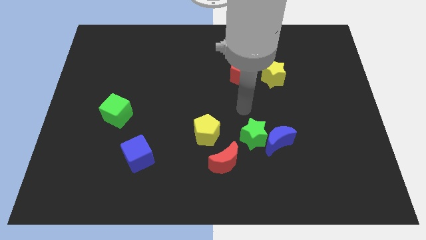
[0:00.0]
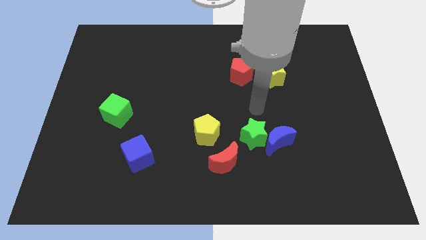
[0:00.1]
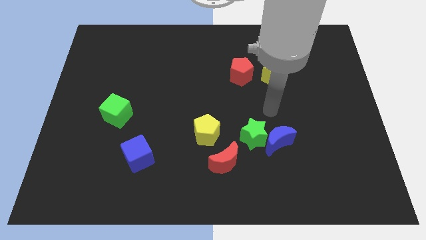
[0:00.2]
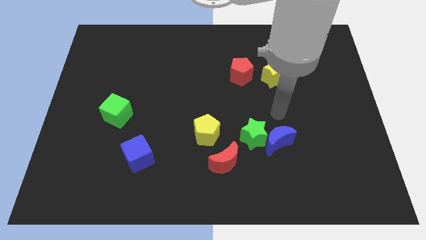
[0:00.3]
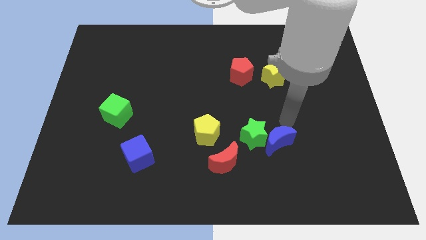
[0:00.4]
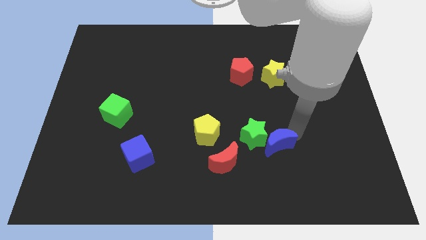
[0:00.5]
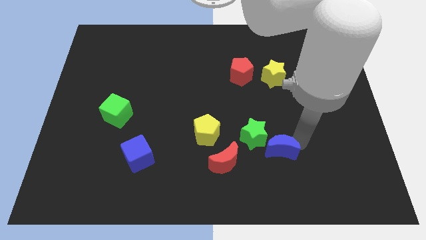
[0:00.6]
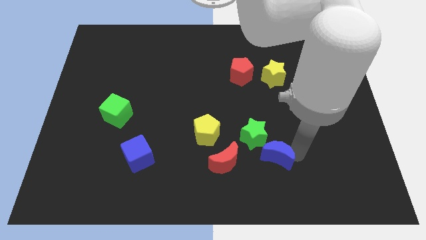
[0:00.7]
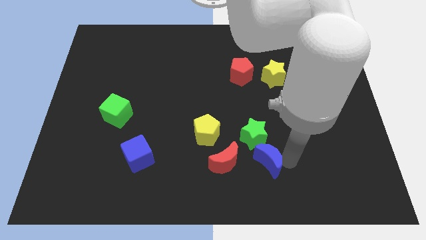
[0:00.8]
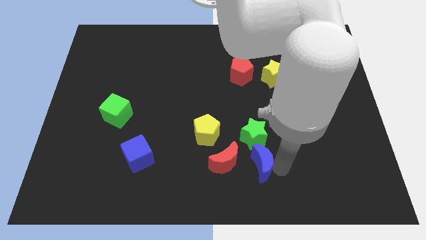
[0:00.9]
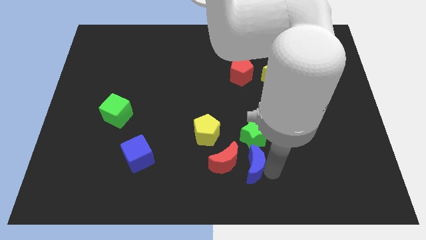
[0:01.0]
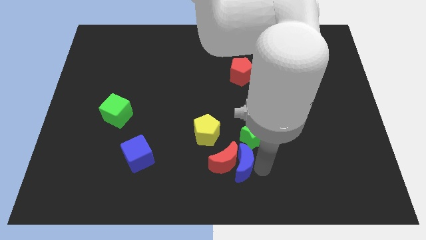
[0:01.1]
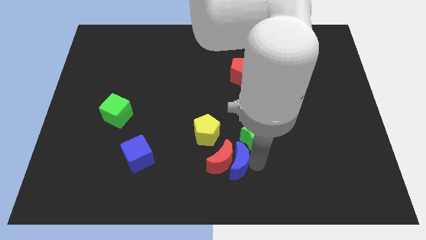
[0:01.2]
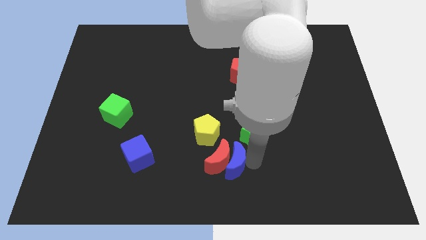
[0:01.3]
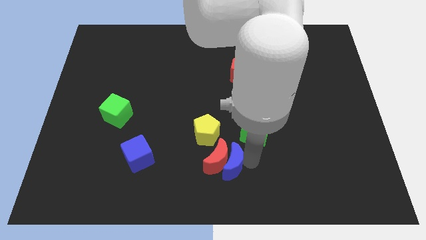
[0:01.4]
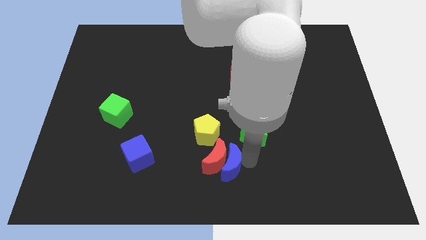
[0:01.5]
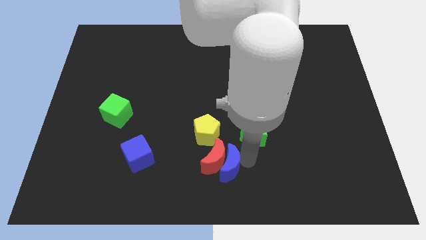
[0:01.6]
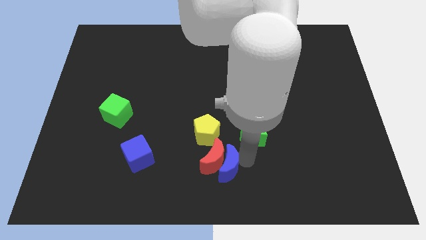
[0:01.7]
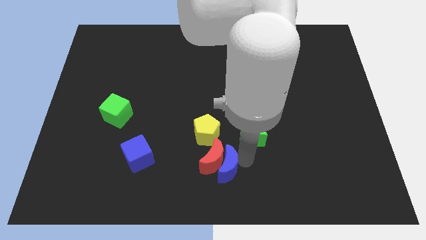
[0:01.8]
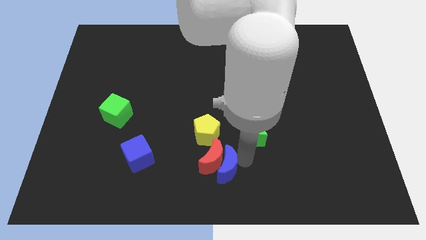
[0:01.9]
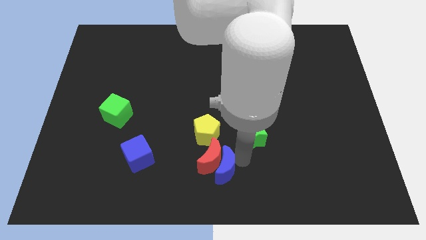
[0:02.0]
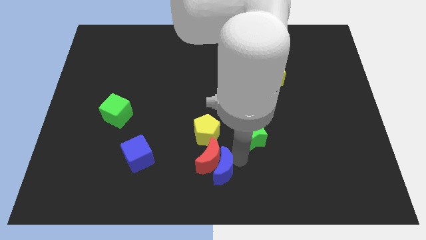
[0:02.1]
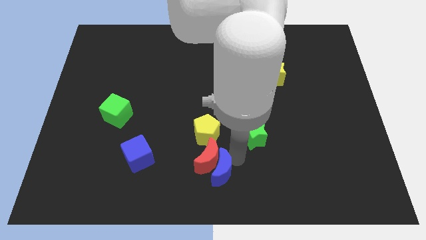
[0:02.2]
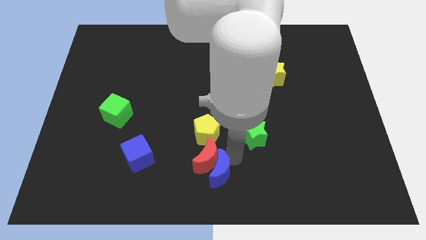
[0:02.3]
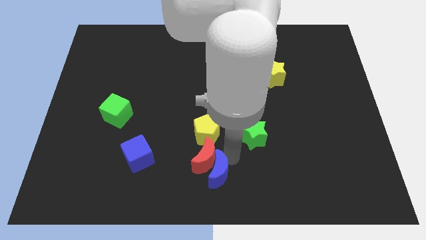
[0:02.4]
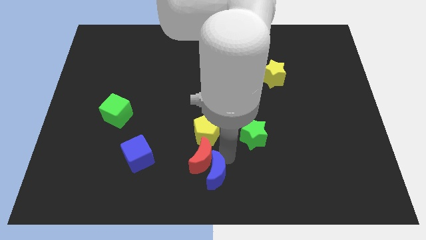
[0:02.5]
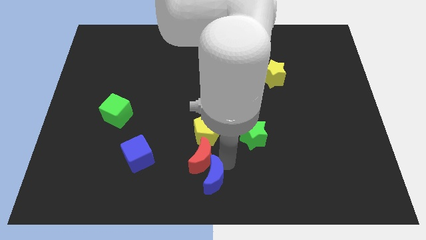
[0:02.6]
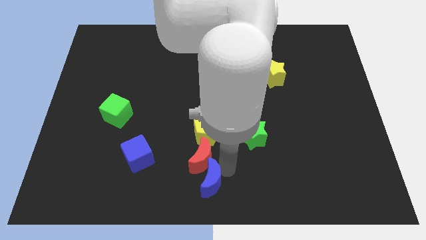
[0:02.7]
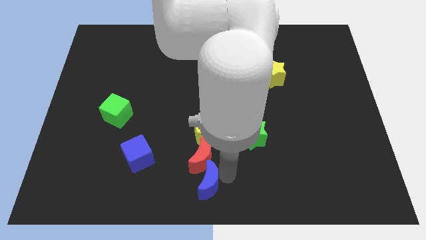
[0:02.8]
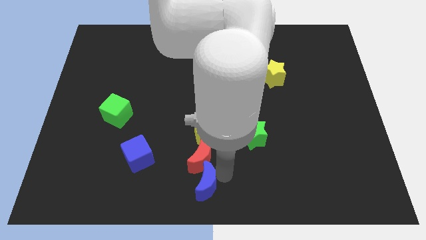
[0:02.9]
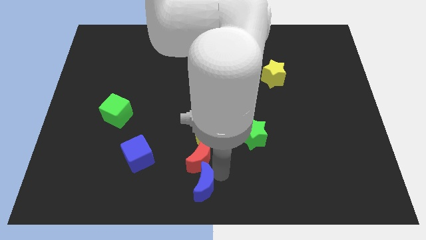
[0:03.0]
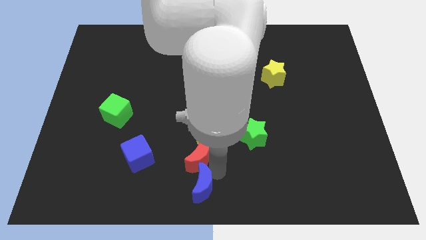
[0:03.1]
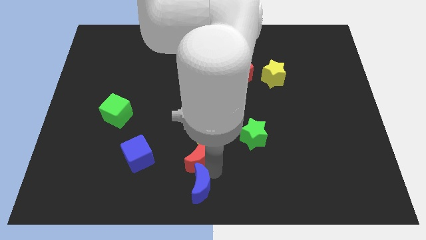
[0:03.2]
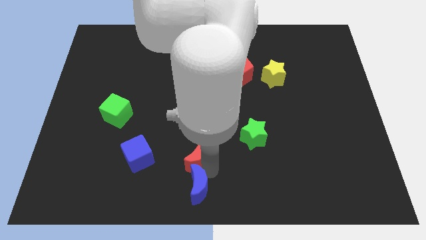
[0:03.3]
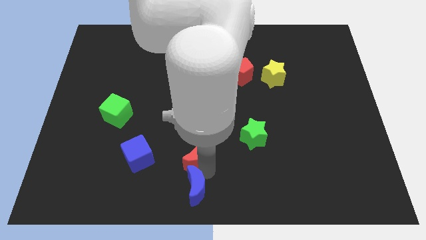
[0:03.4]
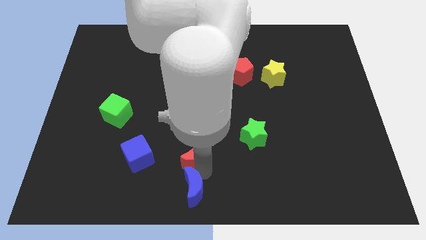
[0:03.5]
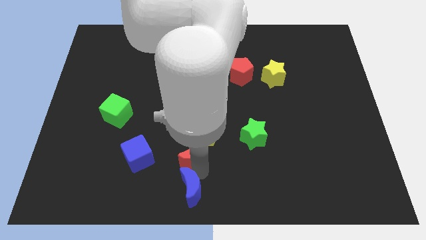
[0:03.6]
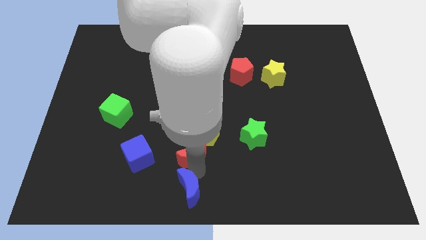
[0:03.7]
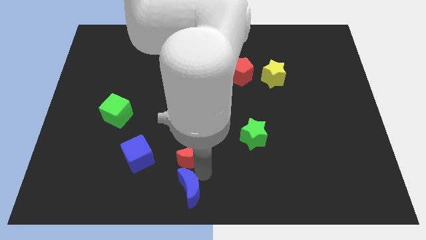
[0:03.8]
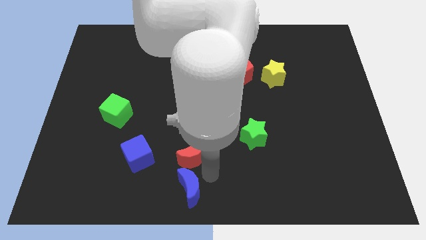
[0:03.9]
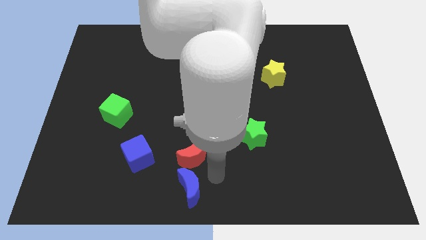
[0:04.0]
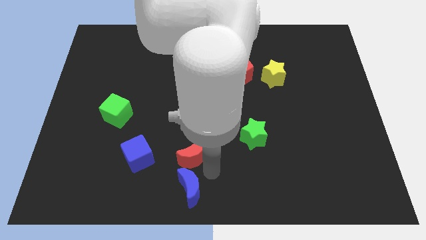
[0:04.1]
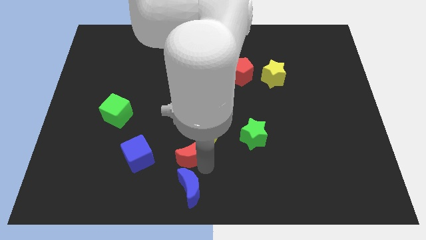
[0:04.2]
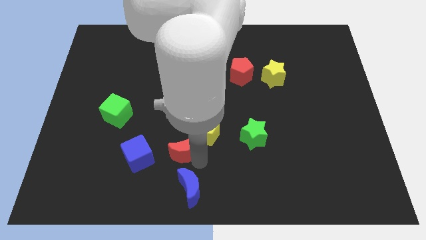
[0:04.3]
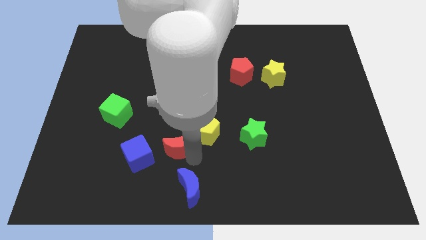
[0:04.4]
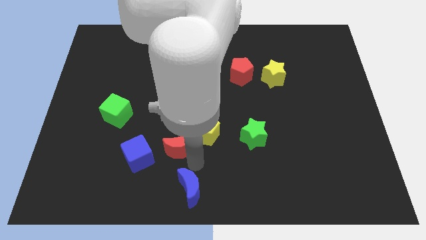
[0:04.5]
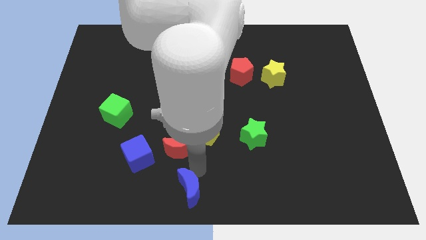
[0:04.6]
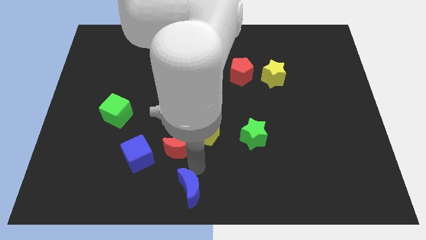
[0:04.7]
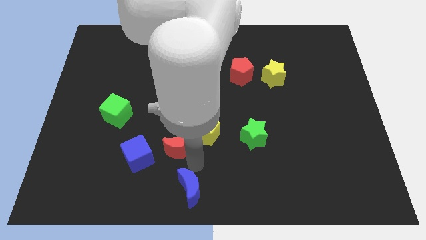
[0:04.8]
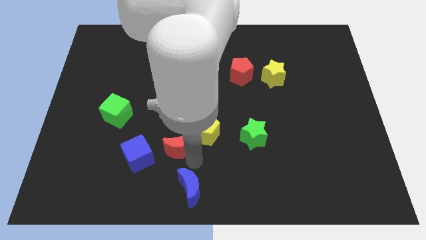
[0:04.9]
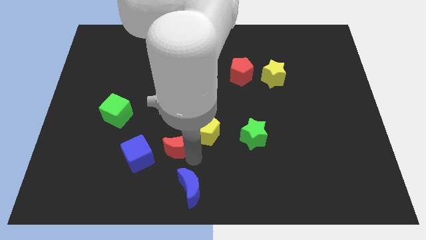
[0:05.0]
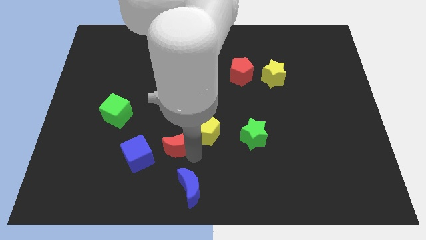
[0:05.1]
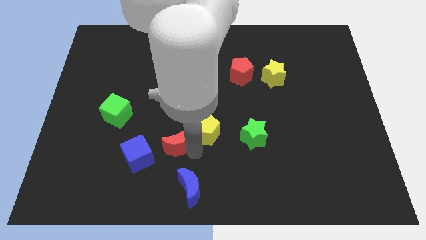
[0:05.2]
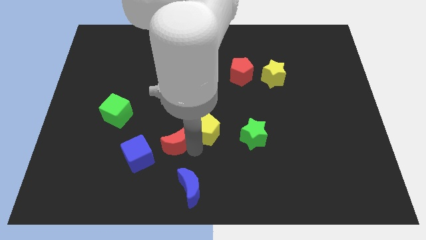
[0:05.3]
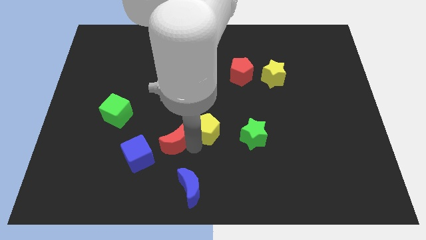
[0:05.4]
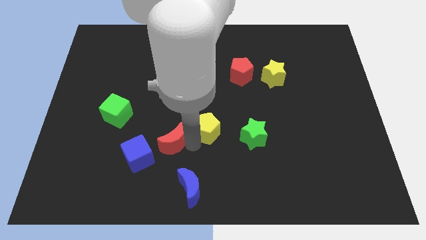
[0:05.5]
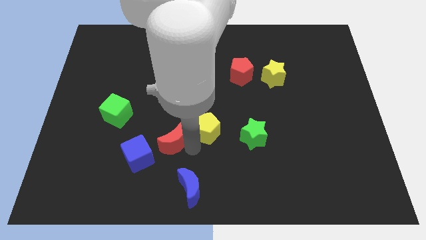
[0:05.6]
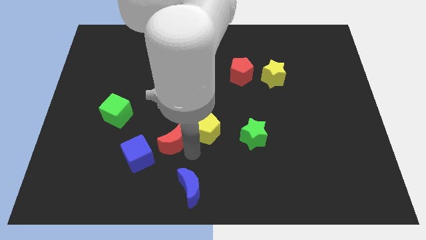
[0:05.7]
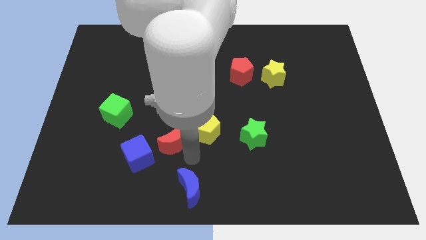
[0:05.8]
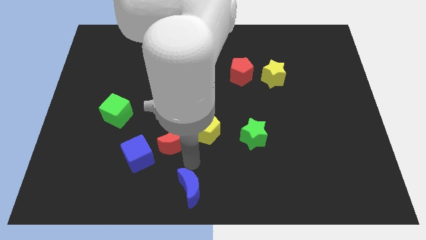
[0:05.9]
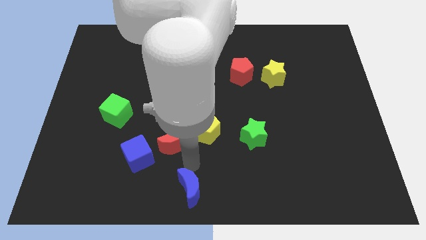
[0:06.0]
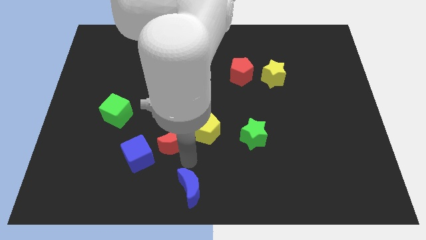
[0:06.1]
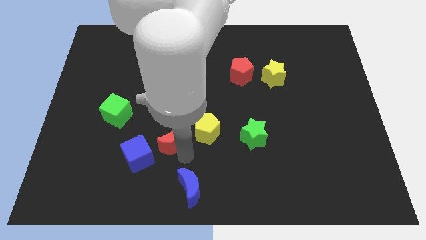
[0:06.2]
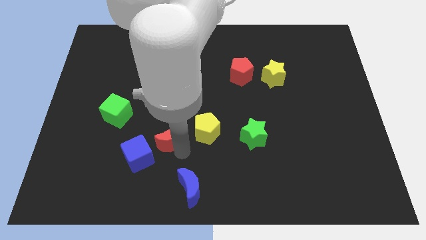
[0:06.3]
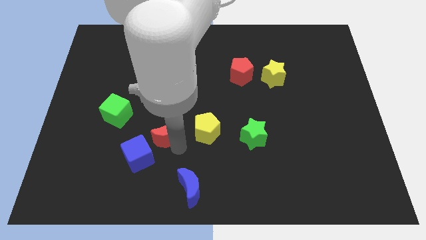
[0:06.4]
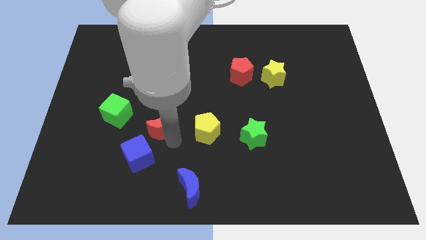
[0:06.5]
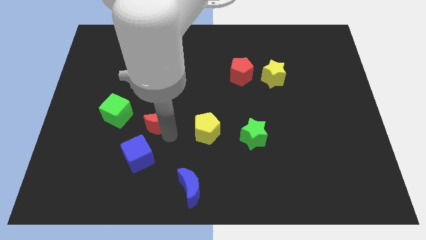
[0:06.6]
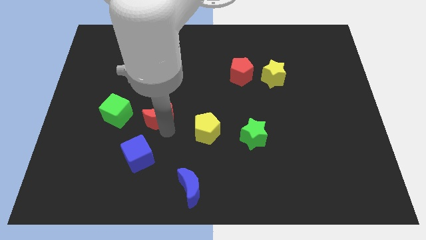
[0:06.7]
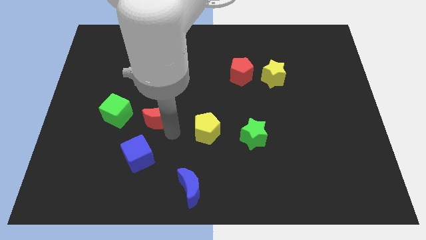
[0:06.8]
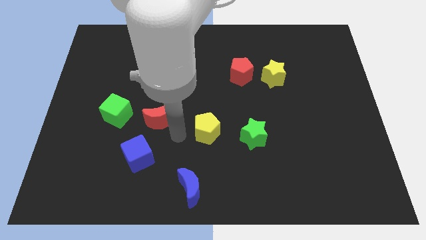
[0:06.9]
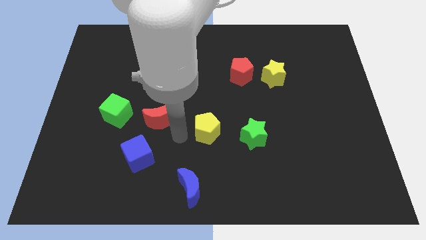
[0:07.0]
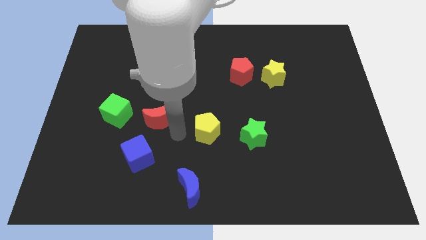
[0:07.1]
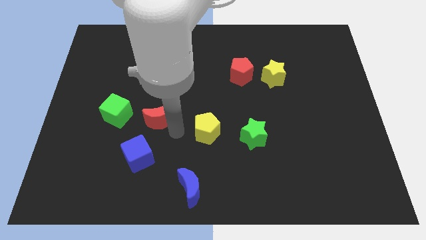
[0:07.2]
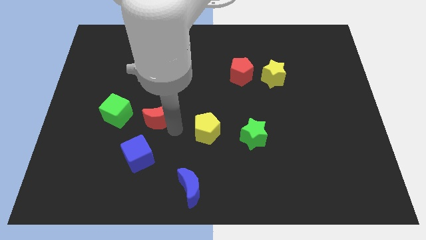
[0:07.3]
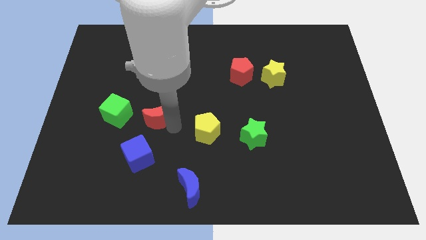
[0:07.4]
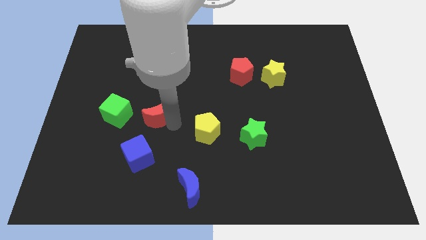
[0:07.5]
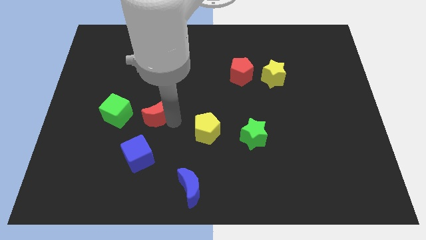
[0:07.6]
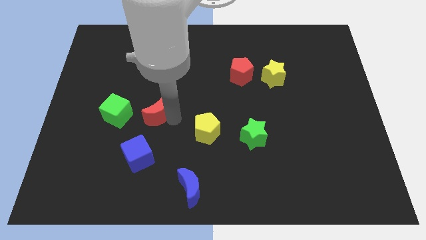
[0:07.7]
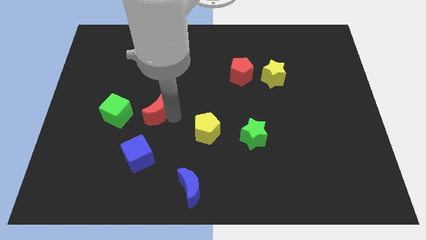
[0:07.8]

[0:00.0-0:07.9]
push the red moon diagonally upwards and to the left

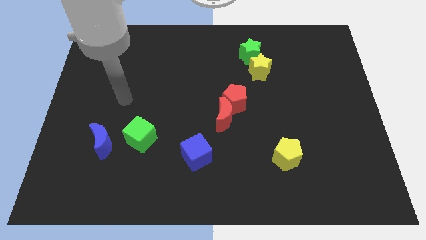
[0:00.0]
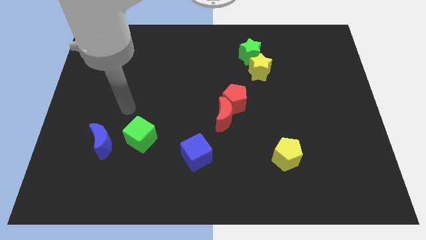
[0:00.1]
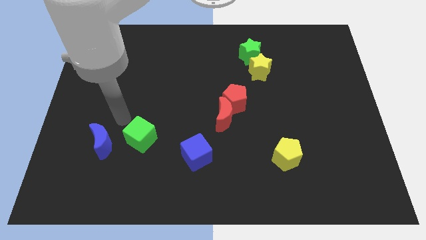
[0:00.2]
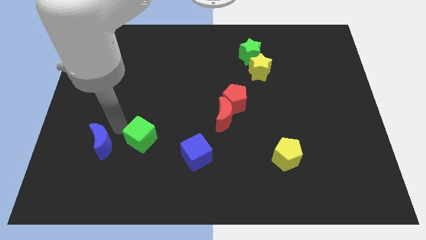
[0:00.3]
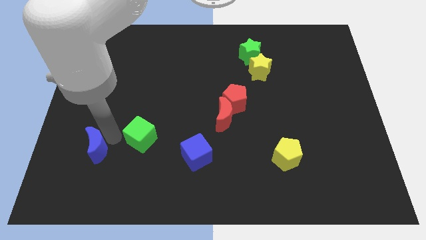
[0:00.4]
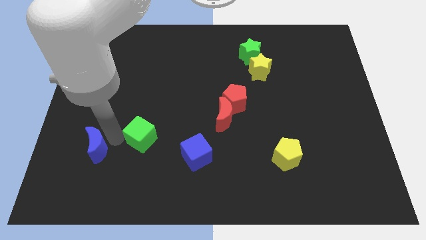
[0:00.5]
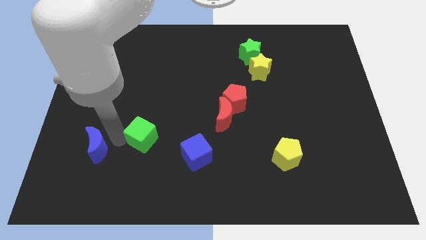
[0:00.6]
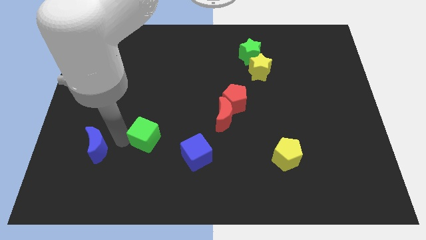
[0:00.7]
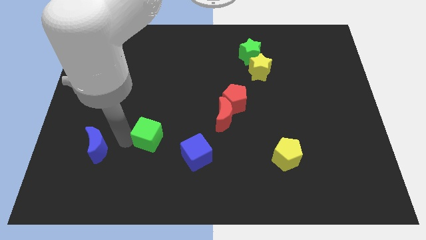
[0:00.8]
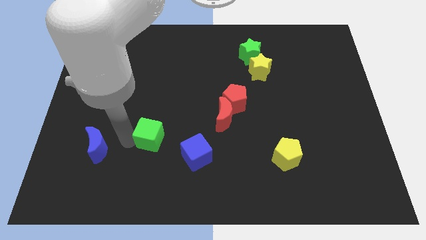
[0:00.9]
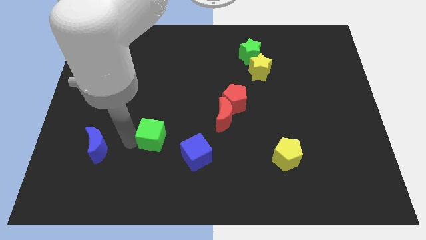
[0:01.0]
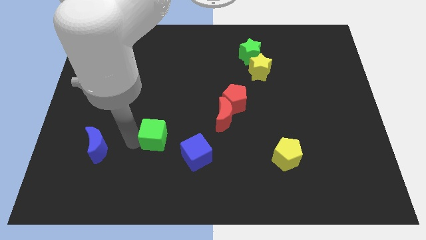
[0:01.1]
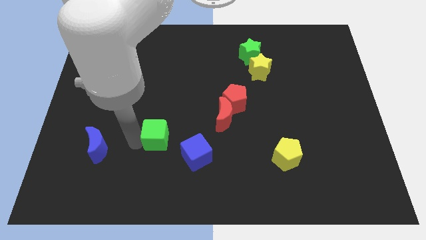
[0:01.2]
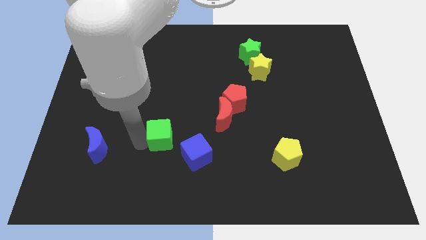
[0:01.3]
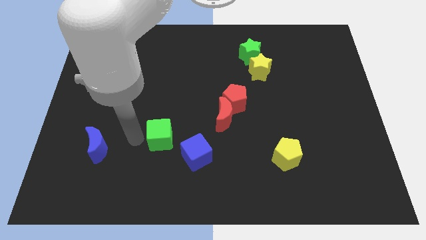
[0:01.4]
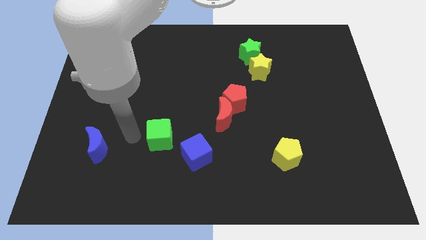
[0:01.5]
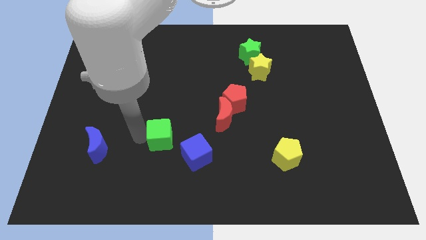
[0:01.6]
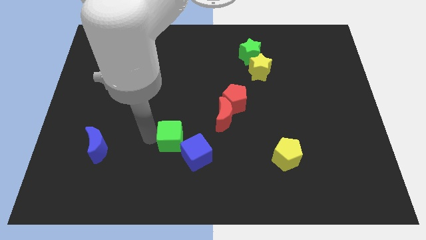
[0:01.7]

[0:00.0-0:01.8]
slide the green cube slightly to the right
